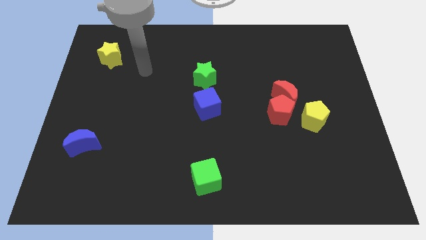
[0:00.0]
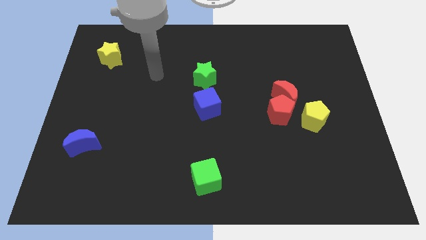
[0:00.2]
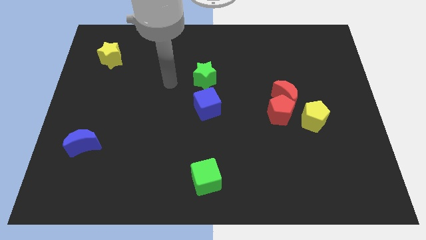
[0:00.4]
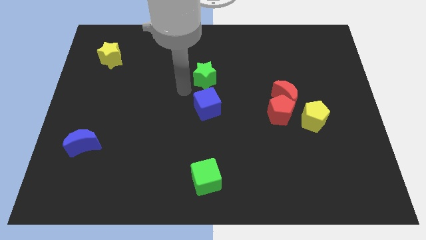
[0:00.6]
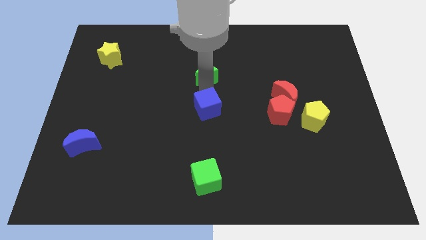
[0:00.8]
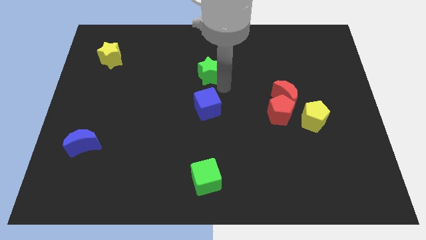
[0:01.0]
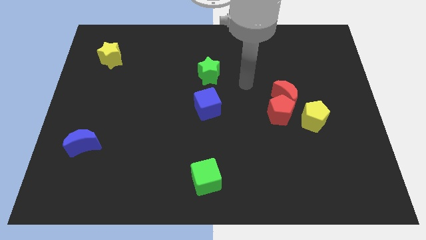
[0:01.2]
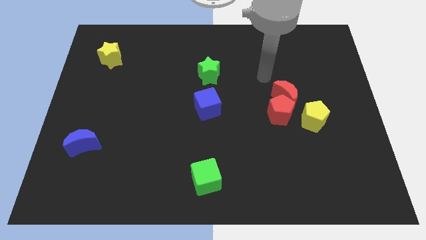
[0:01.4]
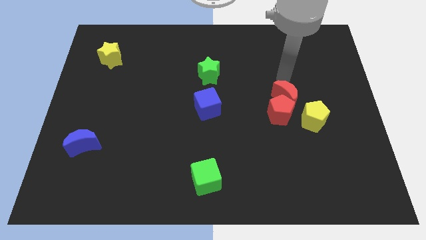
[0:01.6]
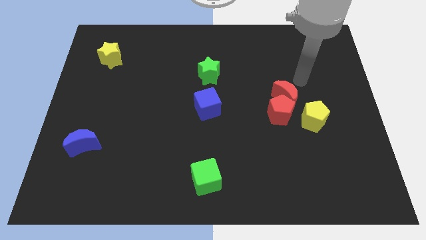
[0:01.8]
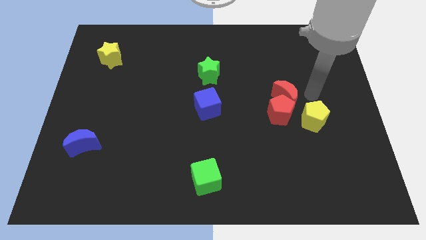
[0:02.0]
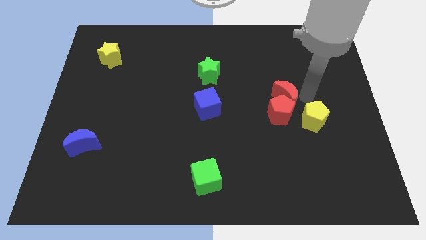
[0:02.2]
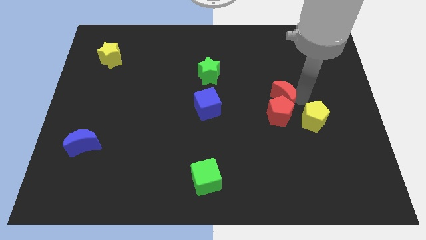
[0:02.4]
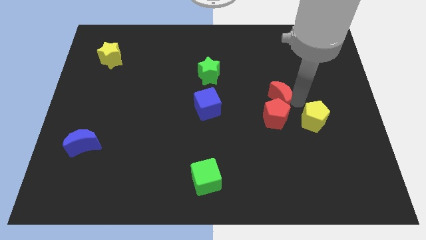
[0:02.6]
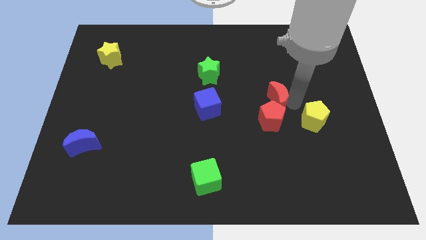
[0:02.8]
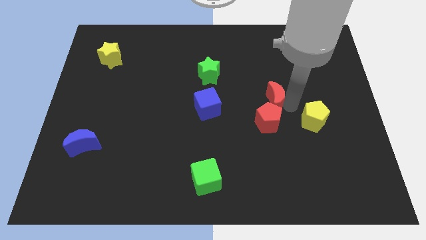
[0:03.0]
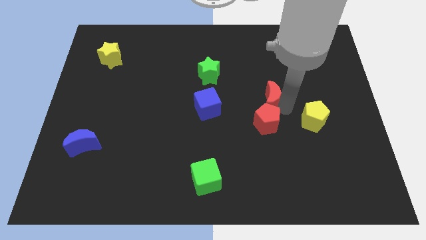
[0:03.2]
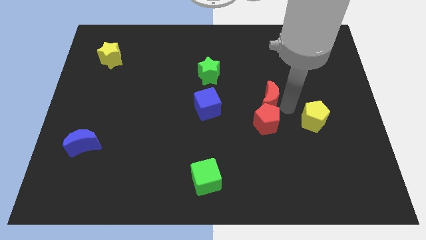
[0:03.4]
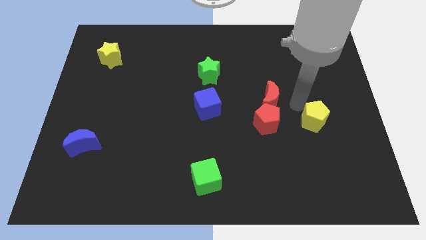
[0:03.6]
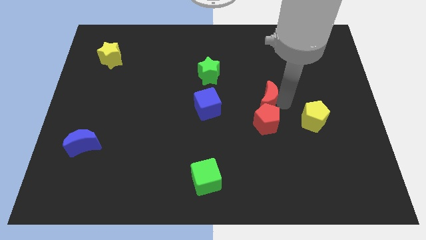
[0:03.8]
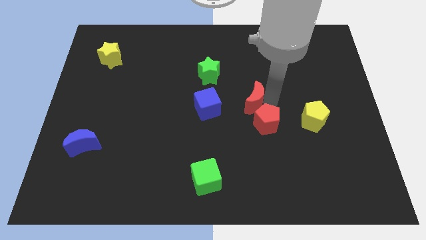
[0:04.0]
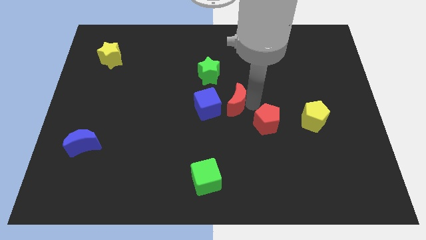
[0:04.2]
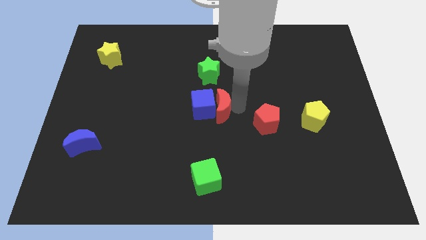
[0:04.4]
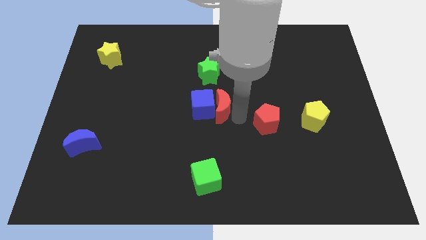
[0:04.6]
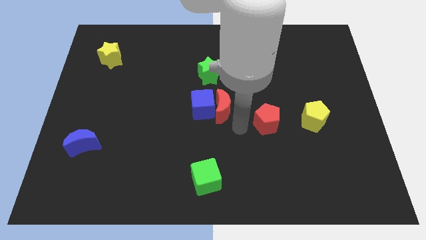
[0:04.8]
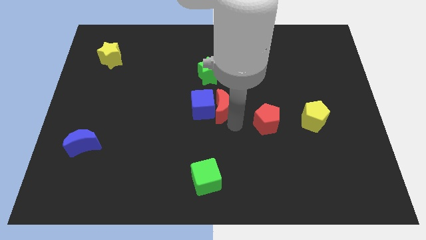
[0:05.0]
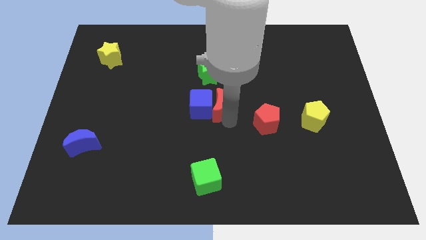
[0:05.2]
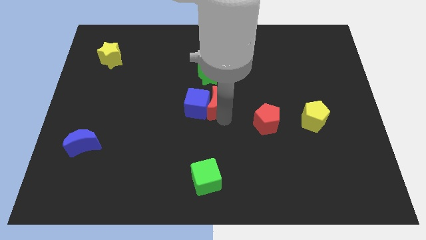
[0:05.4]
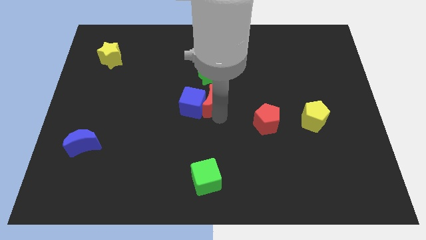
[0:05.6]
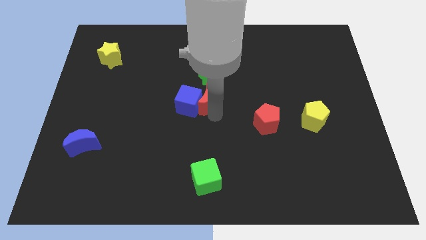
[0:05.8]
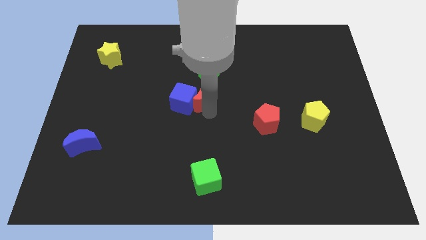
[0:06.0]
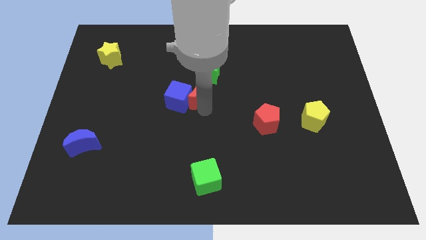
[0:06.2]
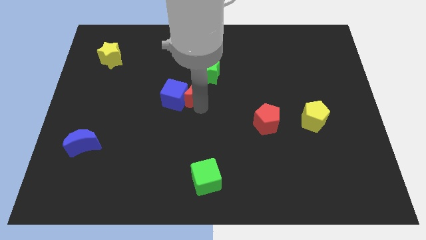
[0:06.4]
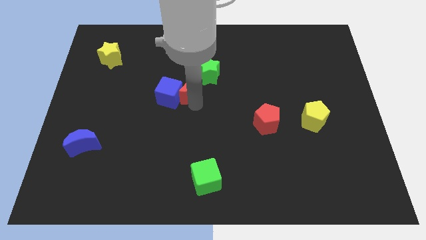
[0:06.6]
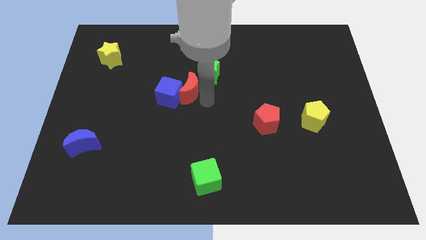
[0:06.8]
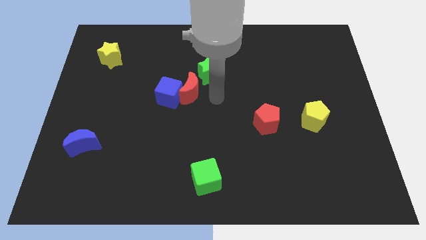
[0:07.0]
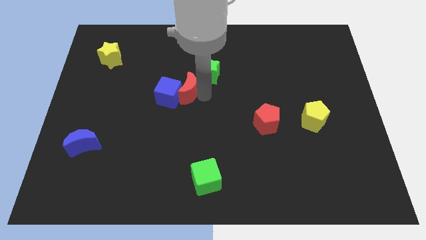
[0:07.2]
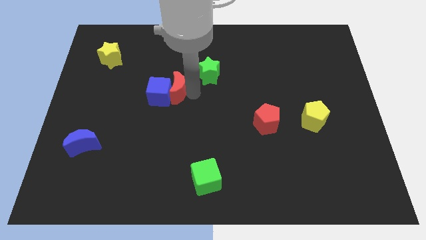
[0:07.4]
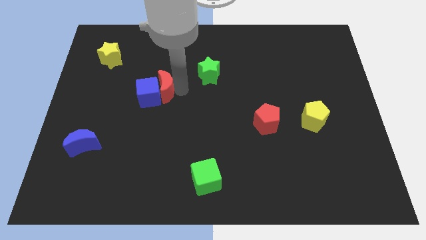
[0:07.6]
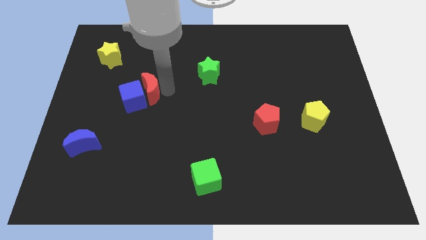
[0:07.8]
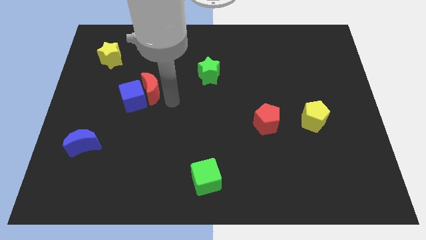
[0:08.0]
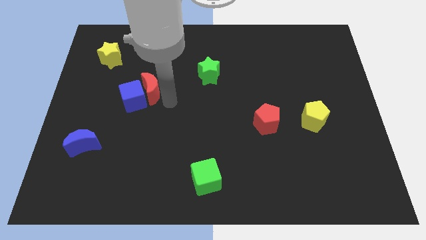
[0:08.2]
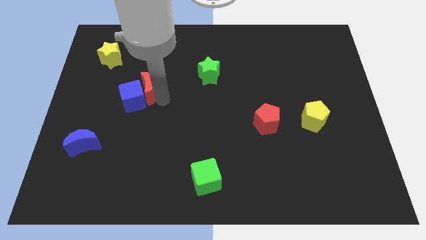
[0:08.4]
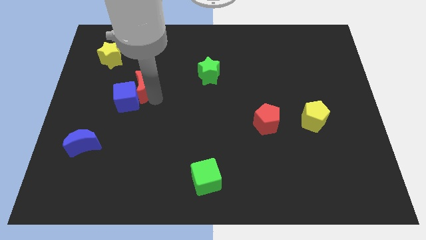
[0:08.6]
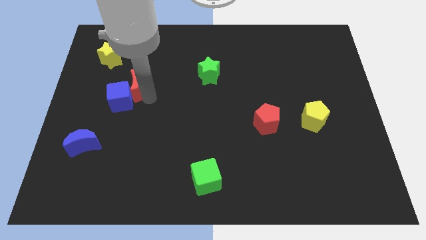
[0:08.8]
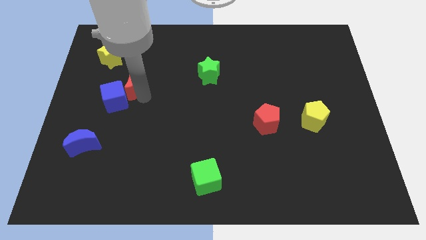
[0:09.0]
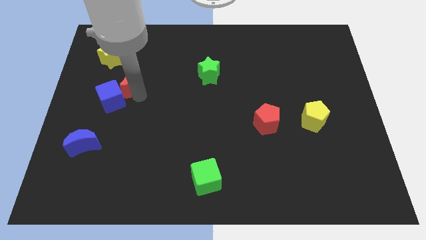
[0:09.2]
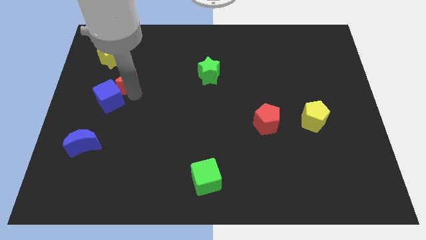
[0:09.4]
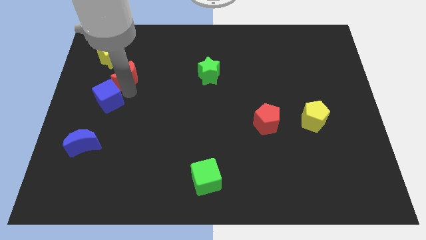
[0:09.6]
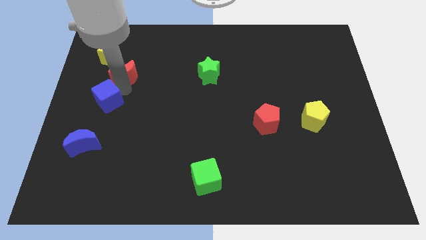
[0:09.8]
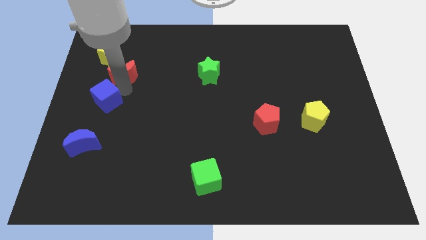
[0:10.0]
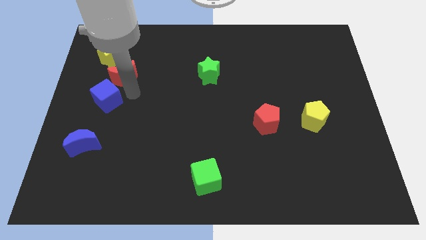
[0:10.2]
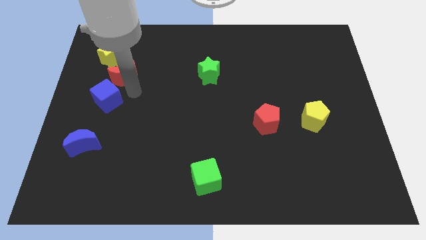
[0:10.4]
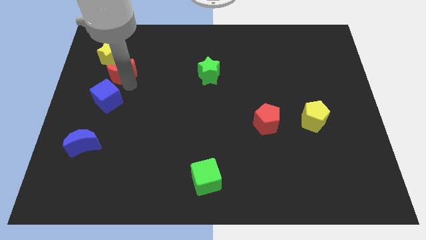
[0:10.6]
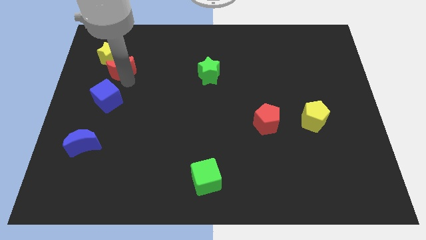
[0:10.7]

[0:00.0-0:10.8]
push the red moon close to the yellow star
